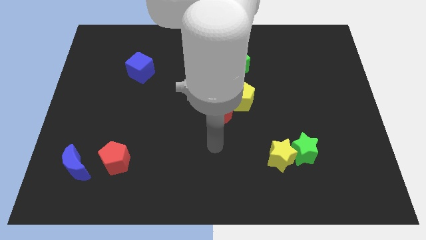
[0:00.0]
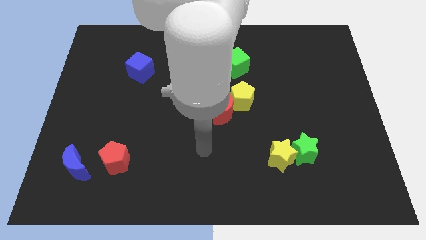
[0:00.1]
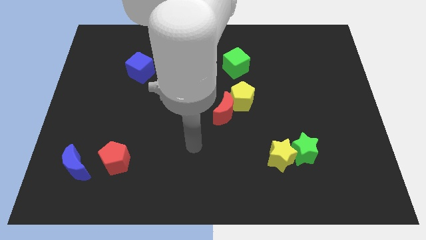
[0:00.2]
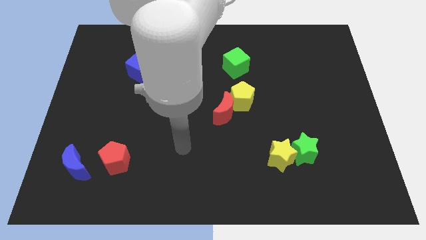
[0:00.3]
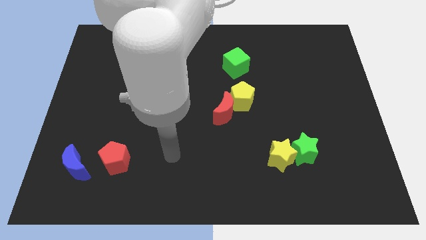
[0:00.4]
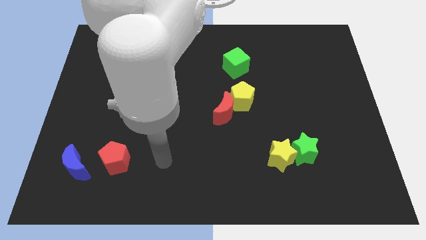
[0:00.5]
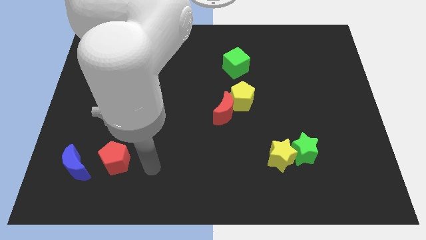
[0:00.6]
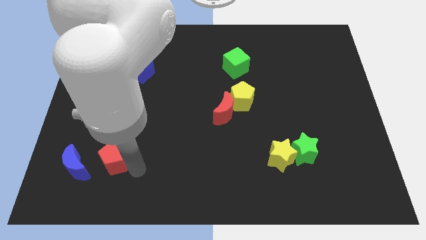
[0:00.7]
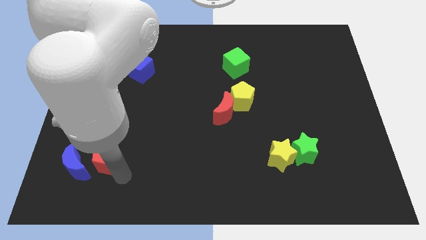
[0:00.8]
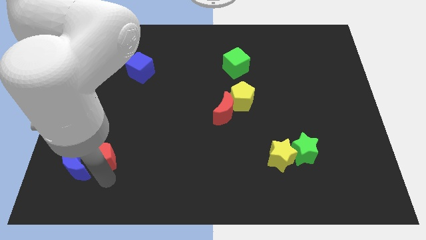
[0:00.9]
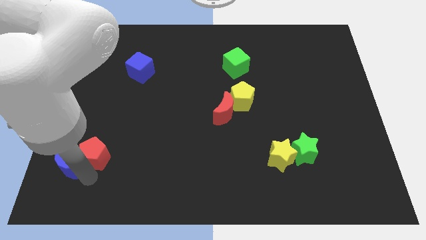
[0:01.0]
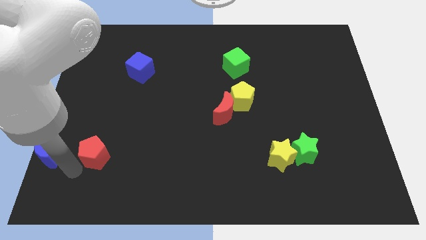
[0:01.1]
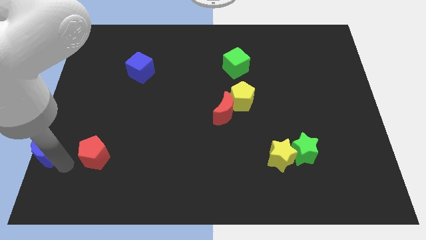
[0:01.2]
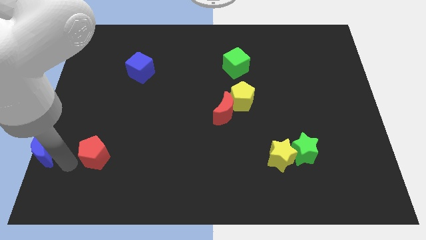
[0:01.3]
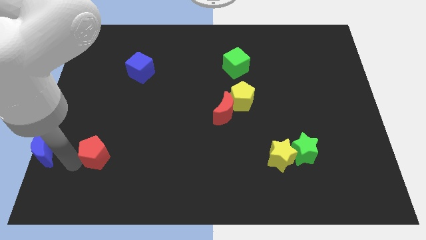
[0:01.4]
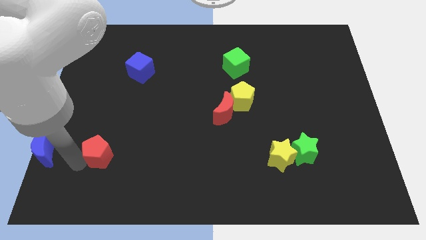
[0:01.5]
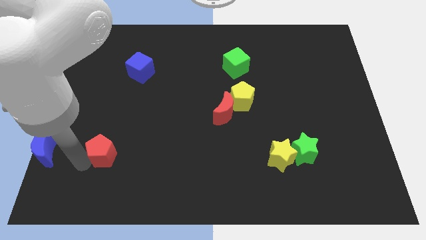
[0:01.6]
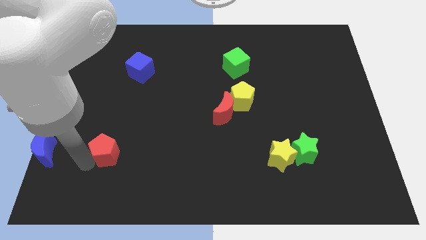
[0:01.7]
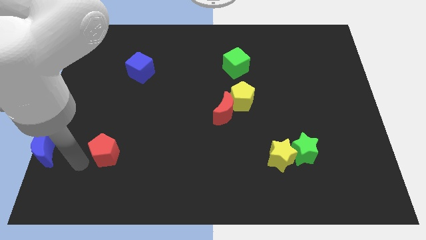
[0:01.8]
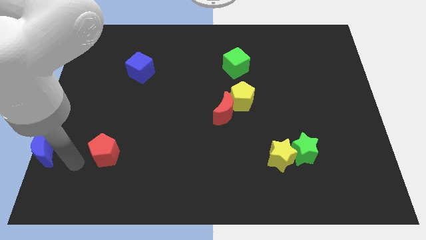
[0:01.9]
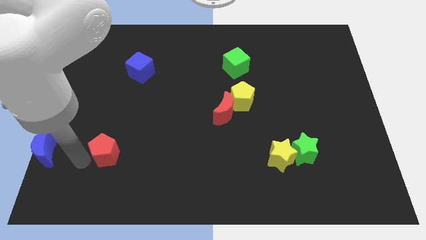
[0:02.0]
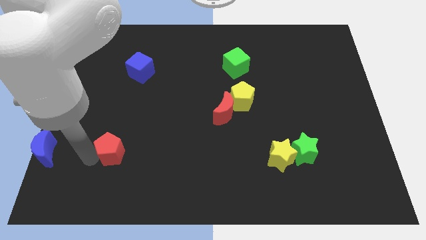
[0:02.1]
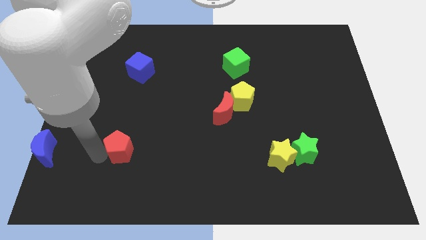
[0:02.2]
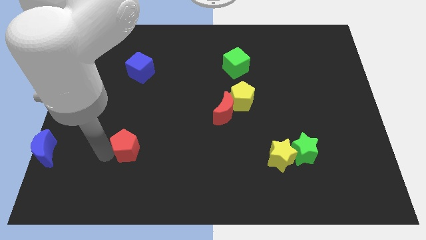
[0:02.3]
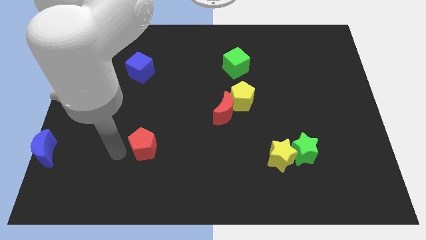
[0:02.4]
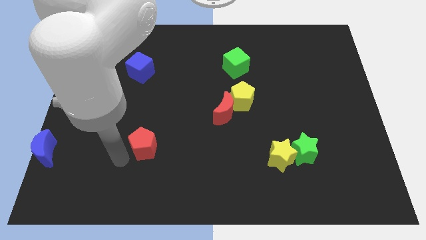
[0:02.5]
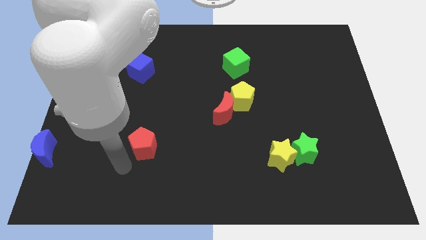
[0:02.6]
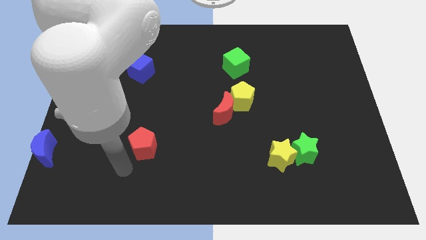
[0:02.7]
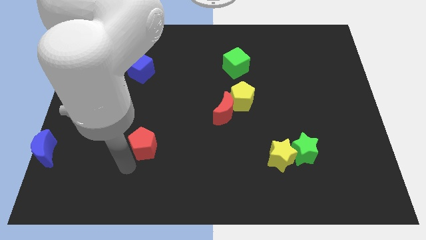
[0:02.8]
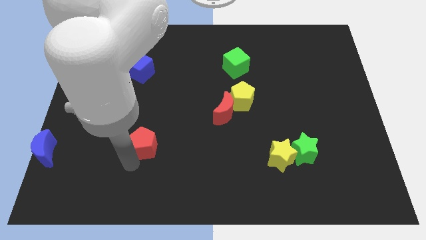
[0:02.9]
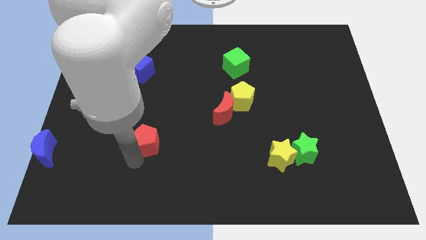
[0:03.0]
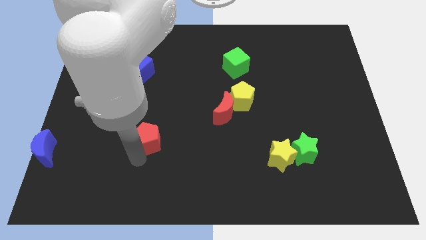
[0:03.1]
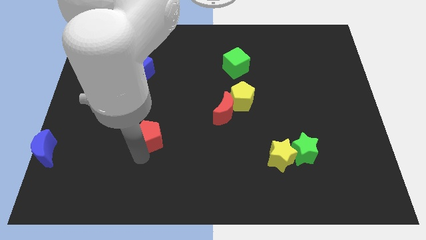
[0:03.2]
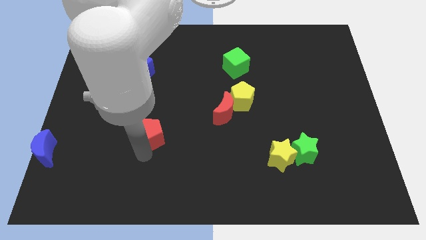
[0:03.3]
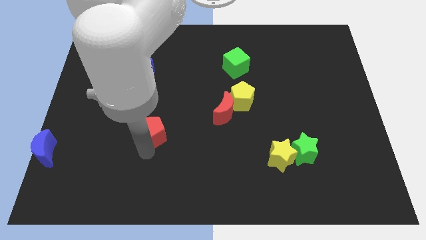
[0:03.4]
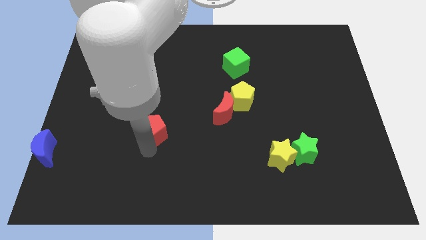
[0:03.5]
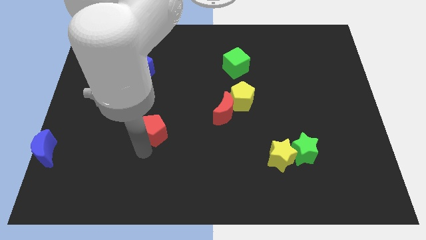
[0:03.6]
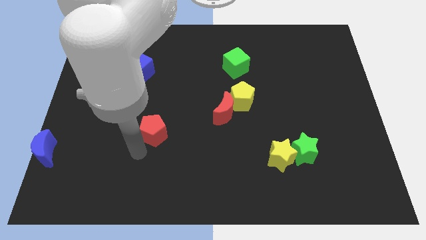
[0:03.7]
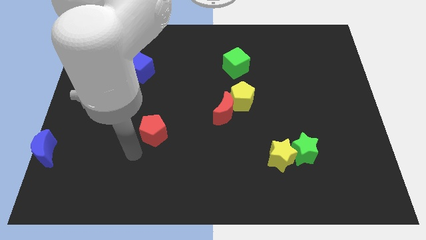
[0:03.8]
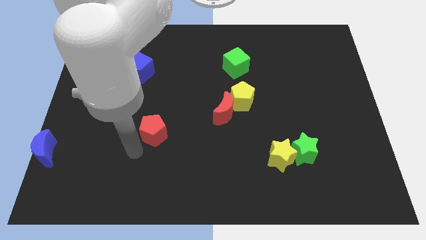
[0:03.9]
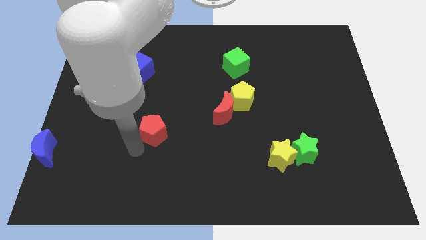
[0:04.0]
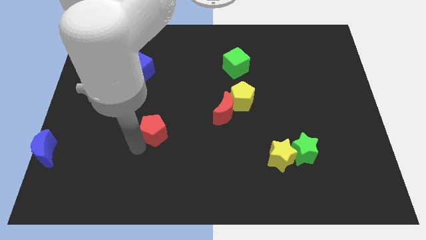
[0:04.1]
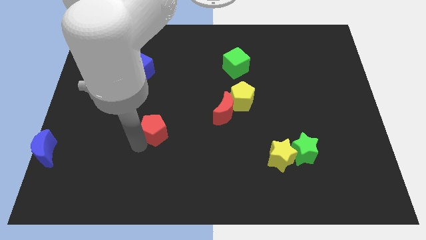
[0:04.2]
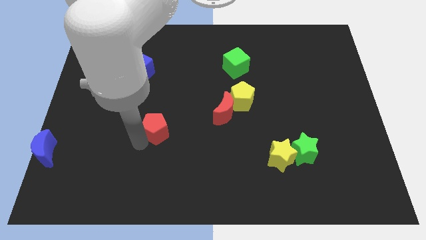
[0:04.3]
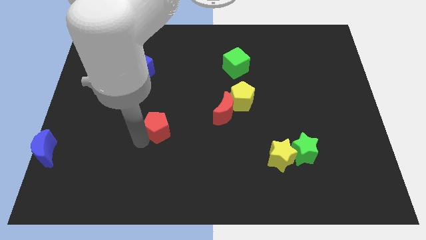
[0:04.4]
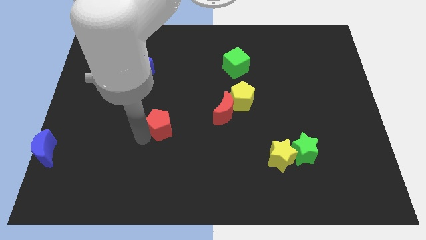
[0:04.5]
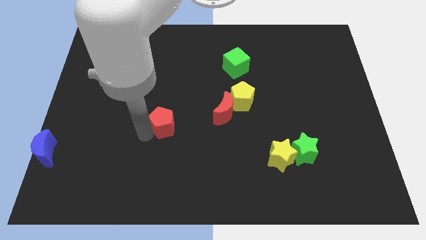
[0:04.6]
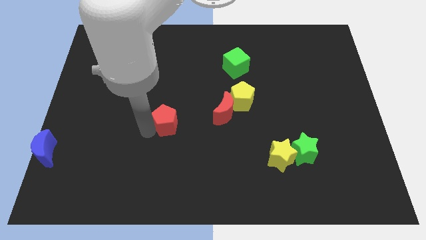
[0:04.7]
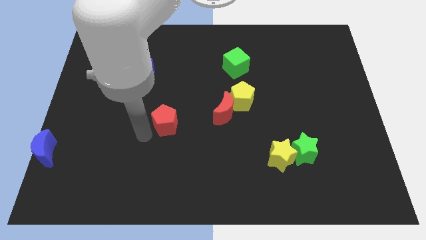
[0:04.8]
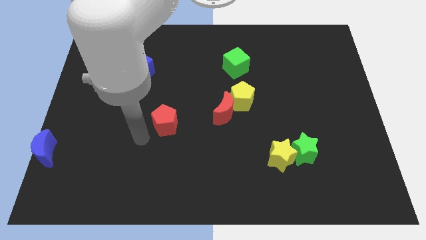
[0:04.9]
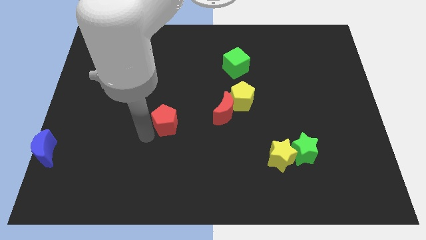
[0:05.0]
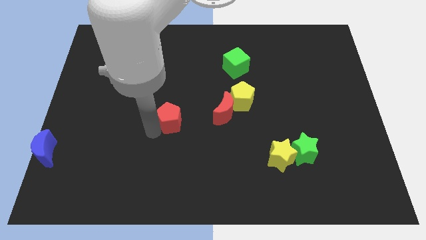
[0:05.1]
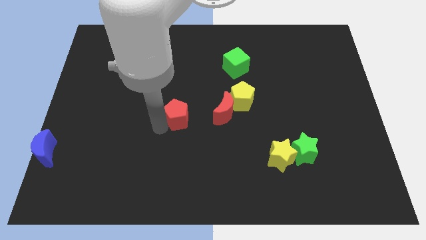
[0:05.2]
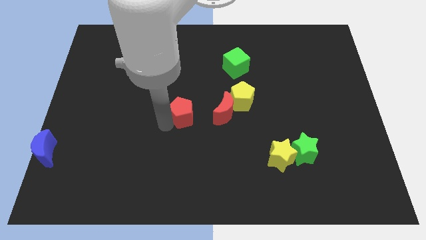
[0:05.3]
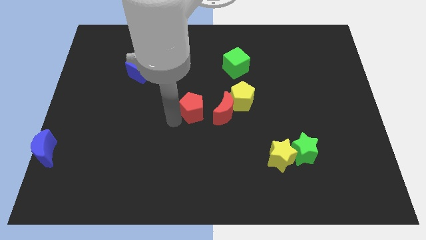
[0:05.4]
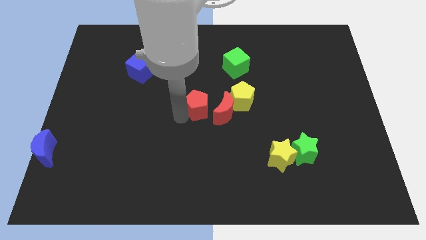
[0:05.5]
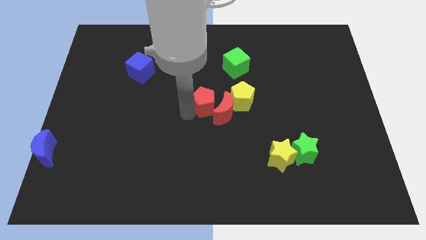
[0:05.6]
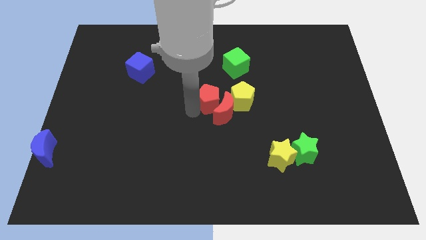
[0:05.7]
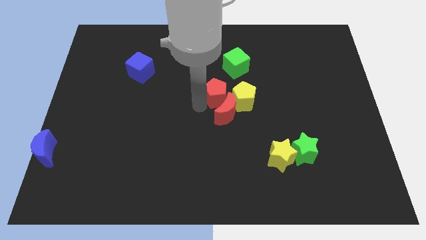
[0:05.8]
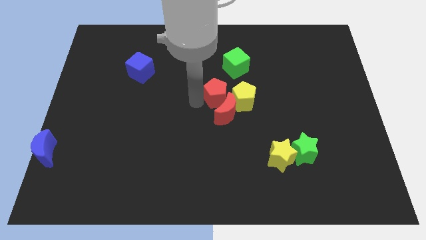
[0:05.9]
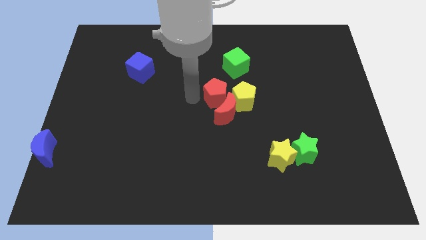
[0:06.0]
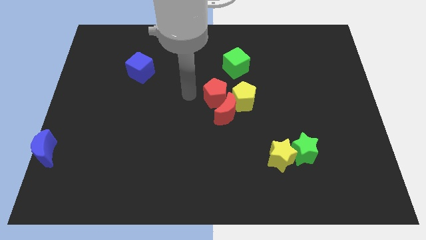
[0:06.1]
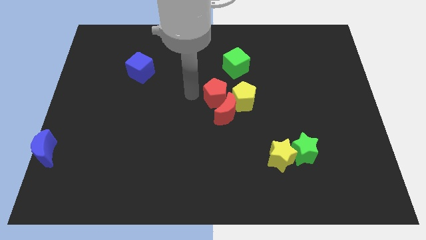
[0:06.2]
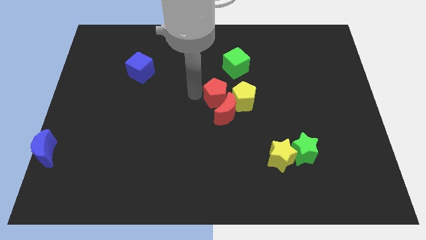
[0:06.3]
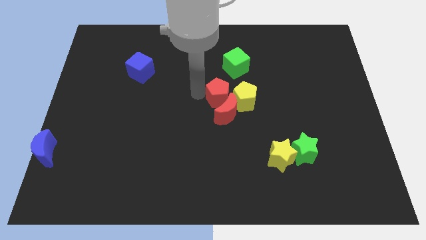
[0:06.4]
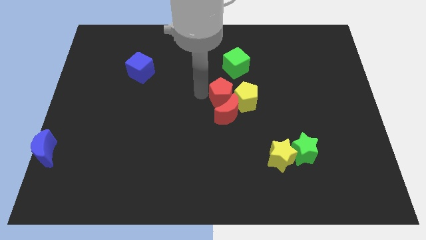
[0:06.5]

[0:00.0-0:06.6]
slide the red pentagon towards the yellow pentagon

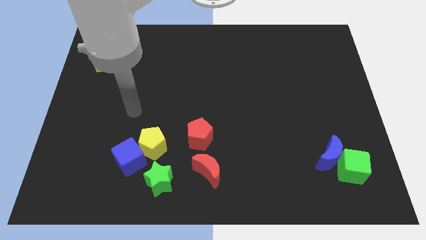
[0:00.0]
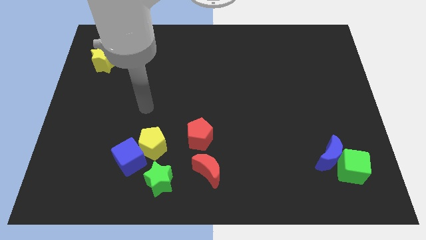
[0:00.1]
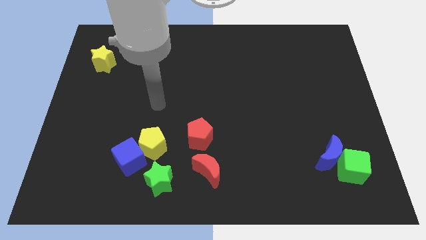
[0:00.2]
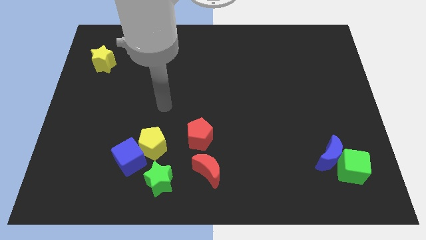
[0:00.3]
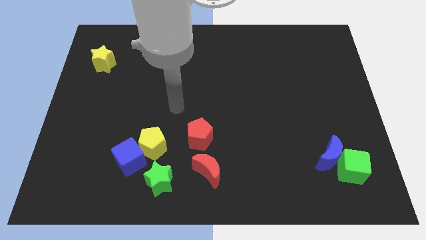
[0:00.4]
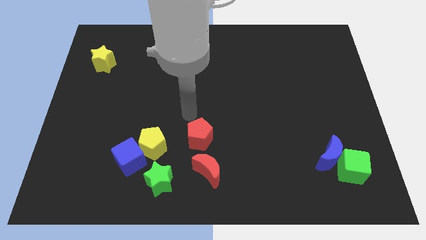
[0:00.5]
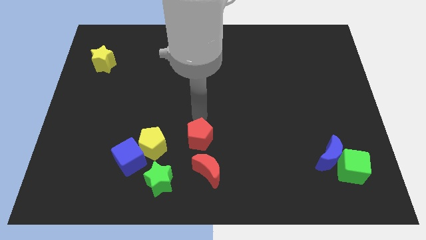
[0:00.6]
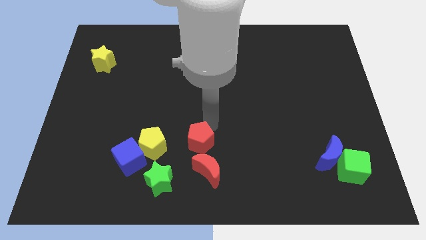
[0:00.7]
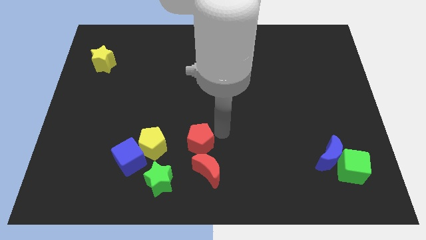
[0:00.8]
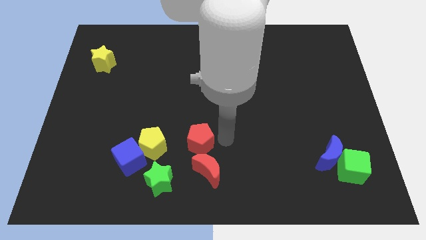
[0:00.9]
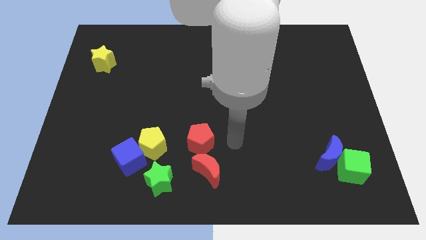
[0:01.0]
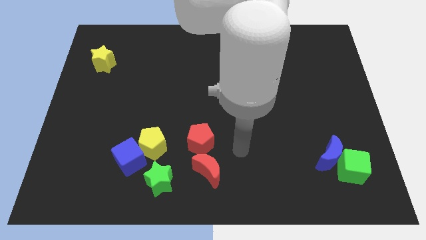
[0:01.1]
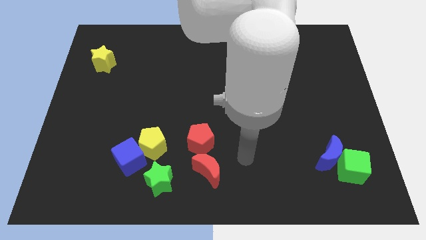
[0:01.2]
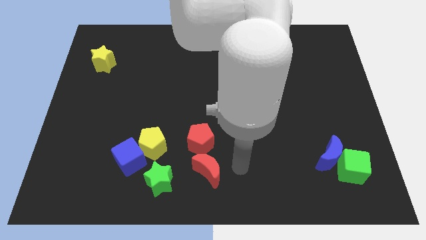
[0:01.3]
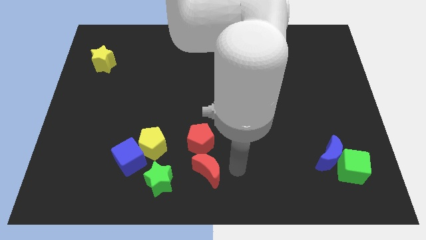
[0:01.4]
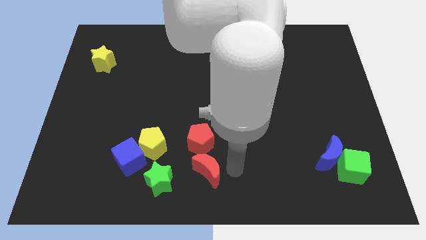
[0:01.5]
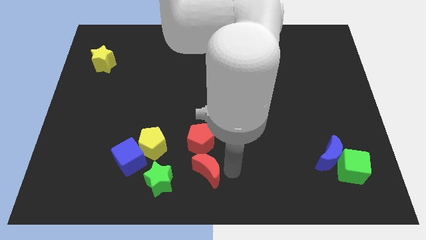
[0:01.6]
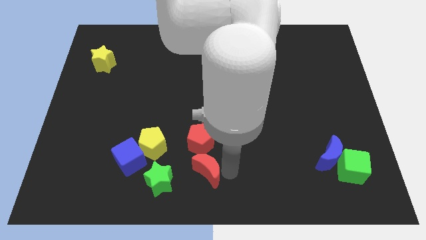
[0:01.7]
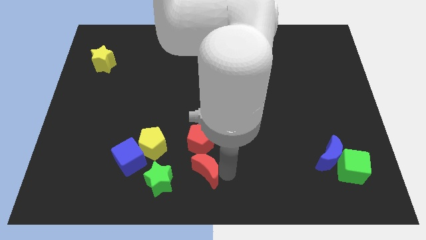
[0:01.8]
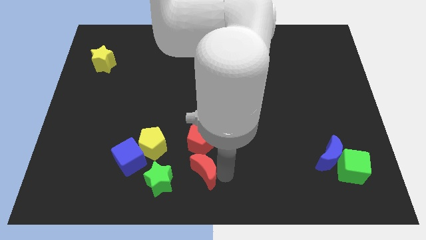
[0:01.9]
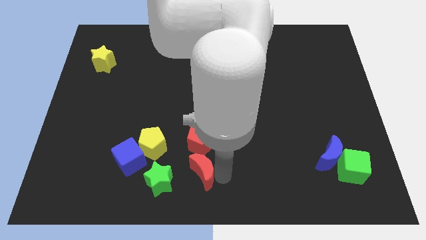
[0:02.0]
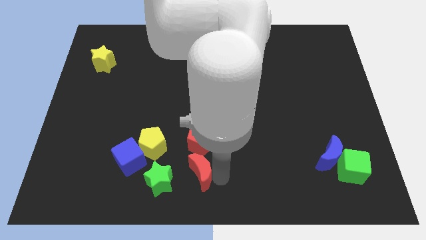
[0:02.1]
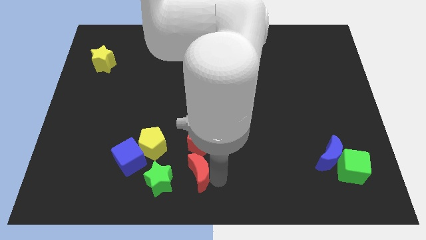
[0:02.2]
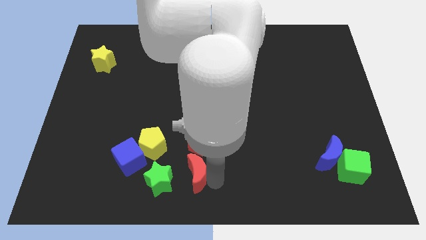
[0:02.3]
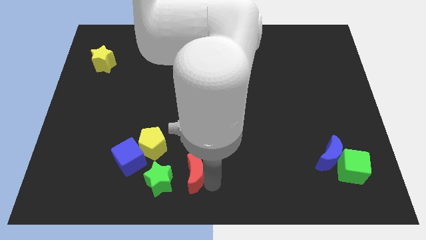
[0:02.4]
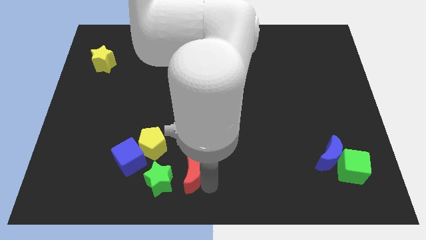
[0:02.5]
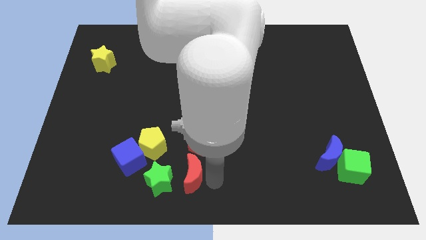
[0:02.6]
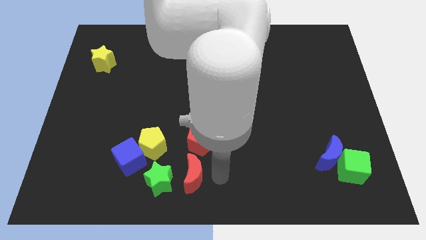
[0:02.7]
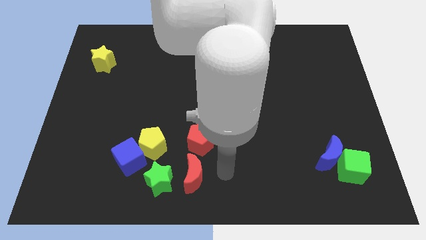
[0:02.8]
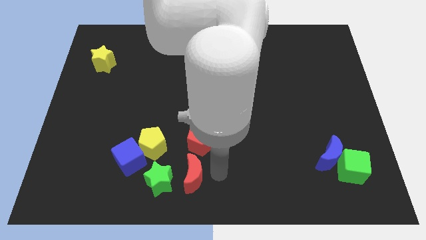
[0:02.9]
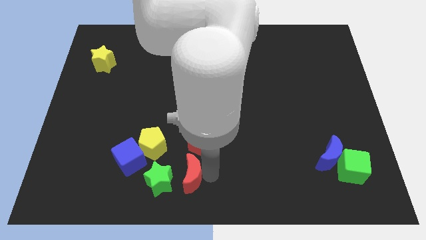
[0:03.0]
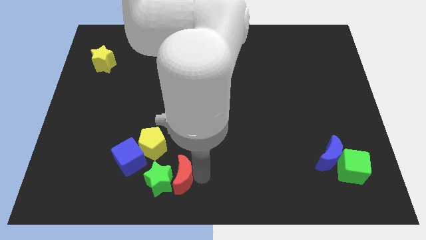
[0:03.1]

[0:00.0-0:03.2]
slide the red moon close to the green star
